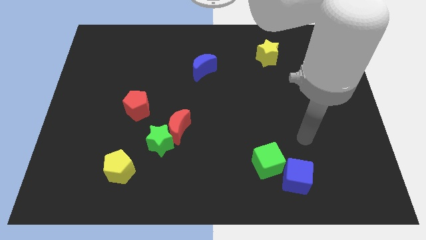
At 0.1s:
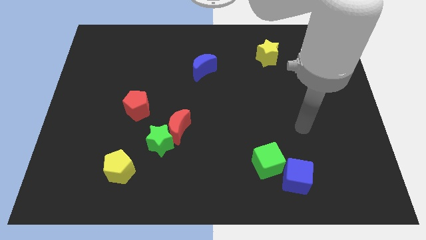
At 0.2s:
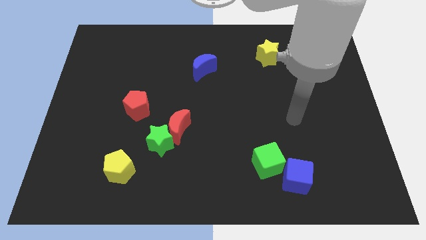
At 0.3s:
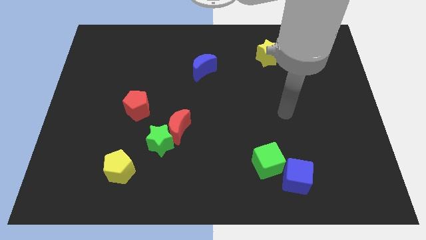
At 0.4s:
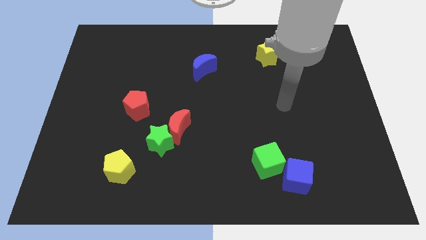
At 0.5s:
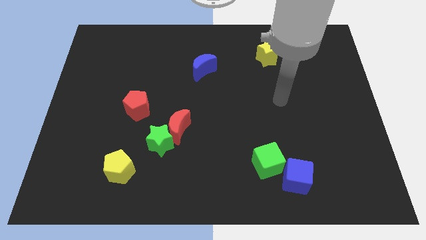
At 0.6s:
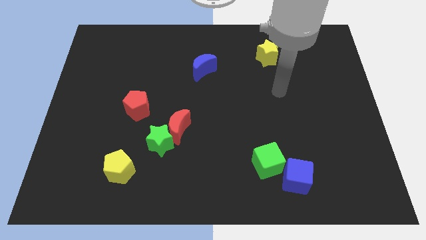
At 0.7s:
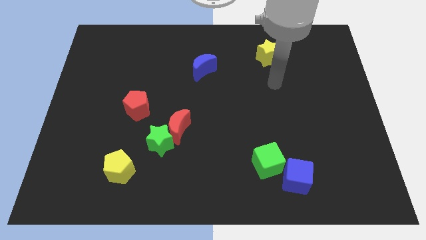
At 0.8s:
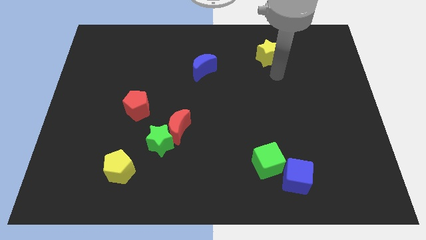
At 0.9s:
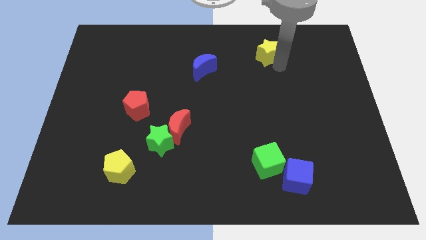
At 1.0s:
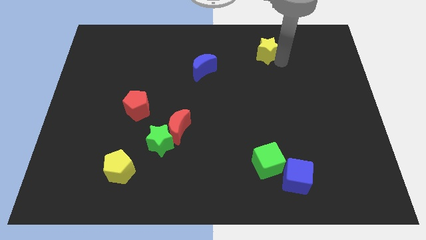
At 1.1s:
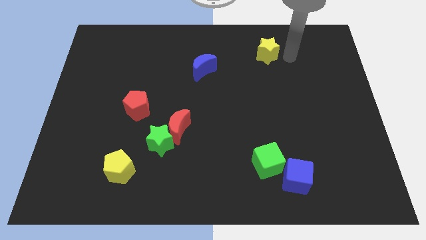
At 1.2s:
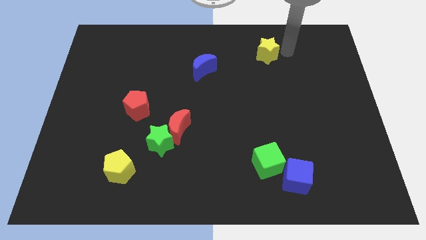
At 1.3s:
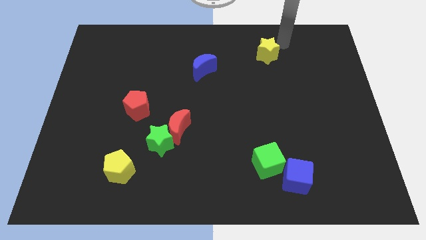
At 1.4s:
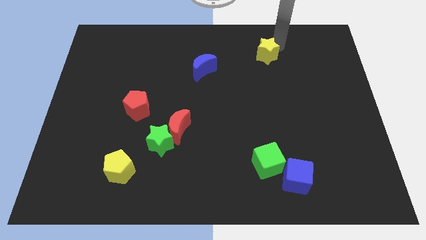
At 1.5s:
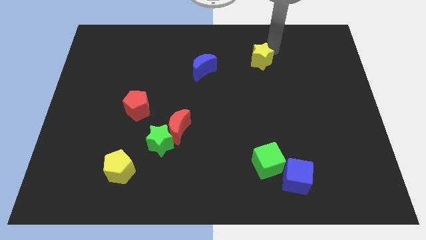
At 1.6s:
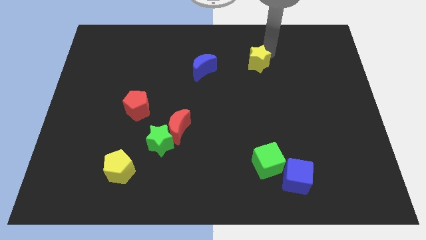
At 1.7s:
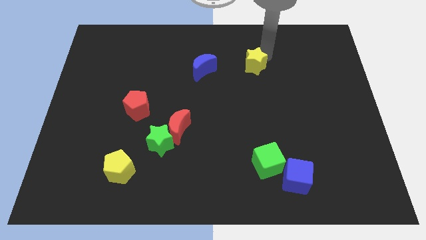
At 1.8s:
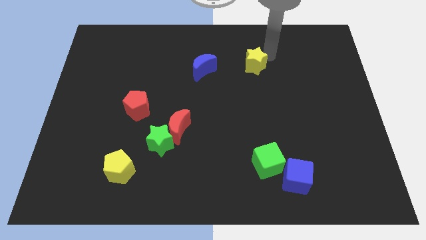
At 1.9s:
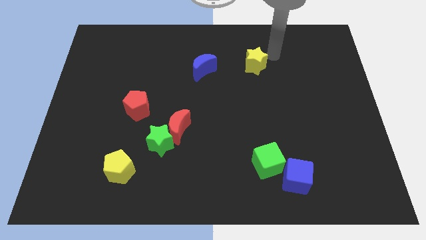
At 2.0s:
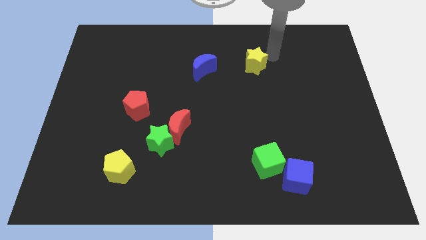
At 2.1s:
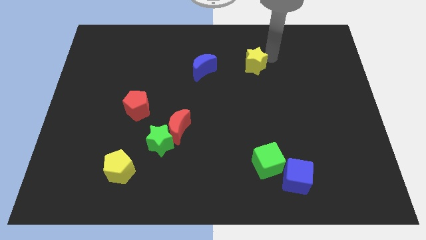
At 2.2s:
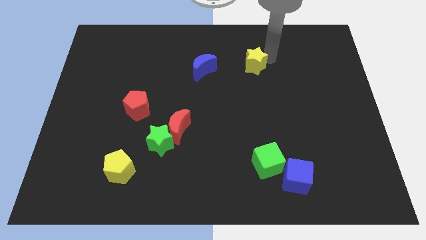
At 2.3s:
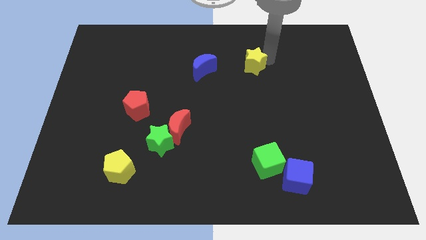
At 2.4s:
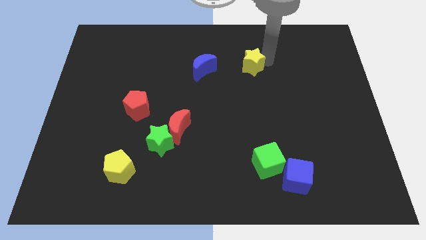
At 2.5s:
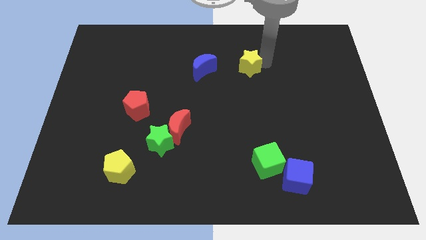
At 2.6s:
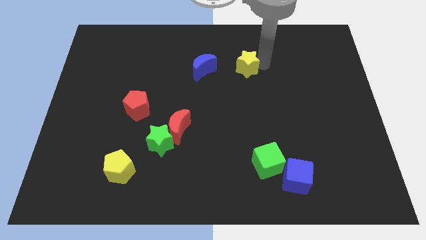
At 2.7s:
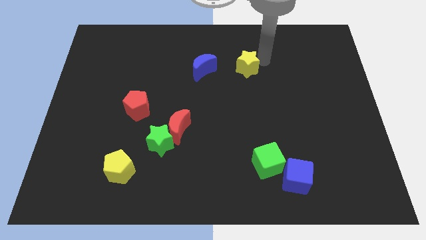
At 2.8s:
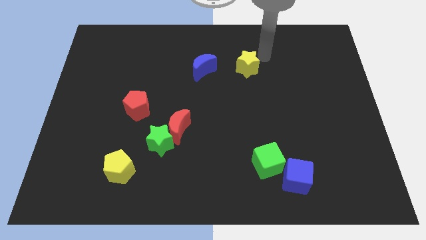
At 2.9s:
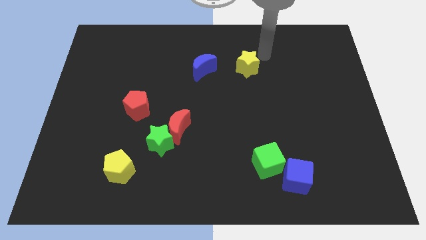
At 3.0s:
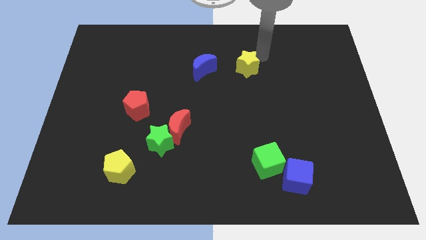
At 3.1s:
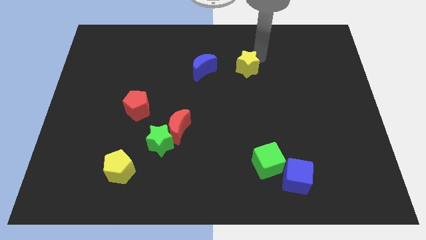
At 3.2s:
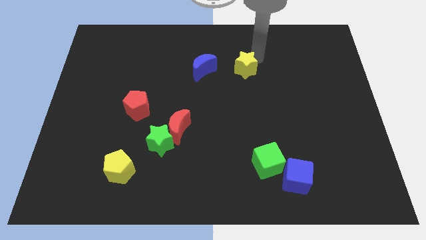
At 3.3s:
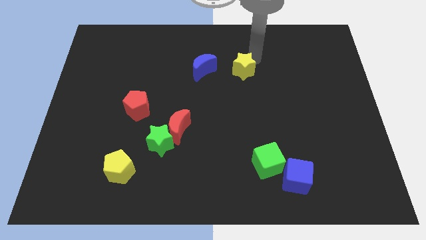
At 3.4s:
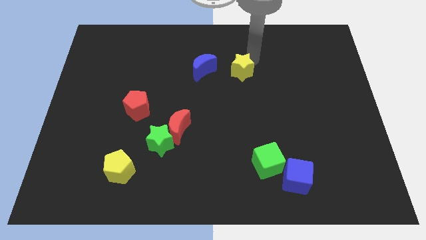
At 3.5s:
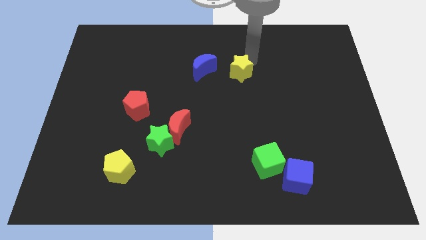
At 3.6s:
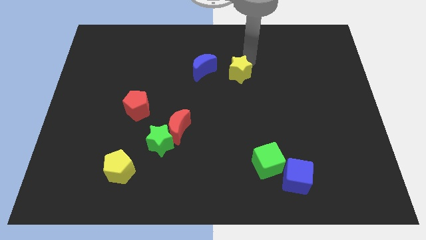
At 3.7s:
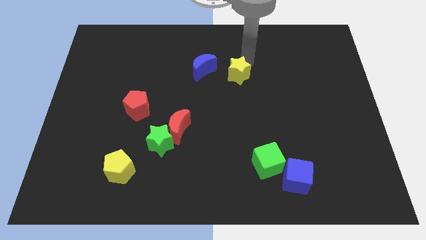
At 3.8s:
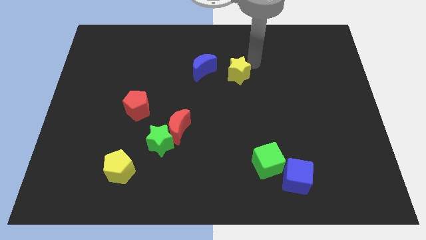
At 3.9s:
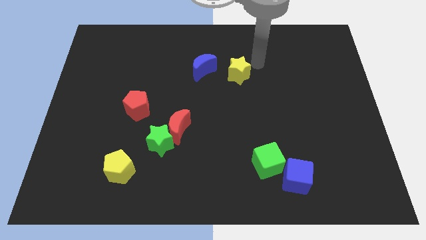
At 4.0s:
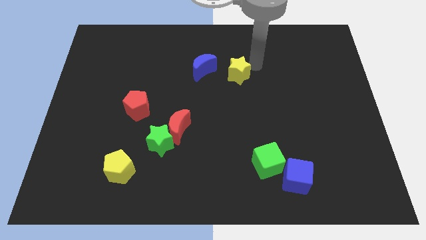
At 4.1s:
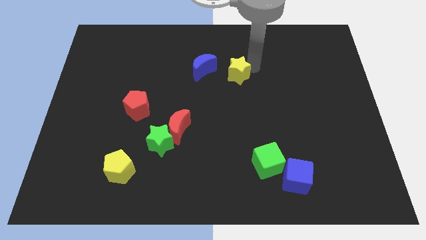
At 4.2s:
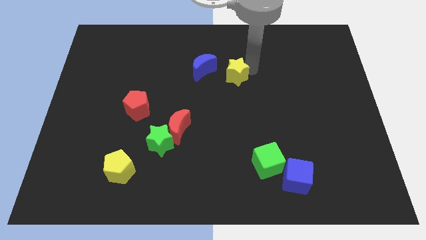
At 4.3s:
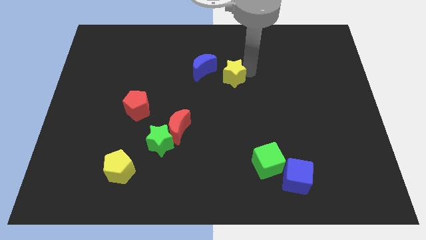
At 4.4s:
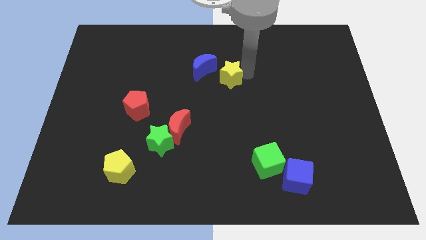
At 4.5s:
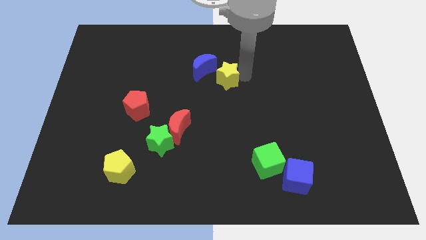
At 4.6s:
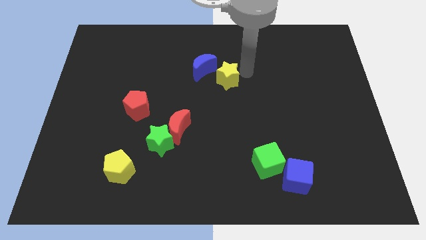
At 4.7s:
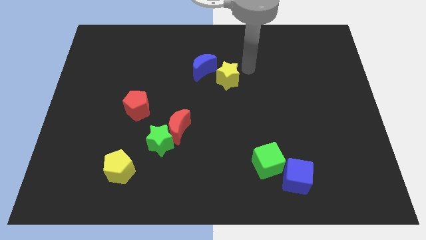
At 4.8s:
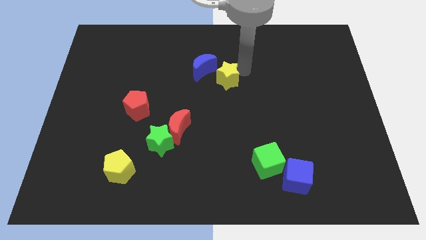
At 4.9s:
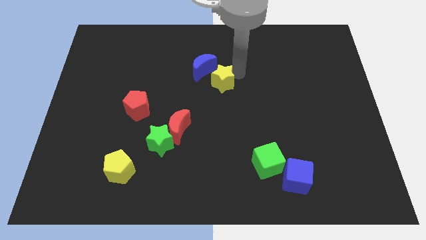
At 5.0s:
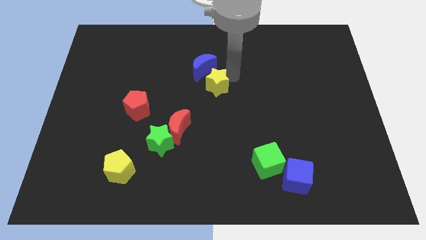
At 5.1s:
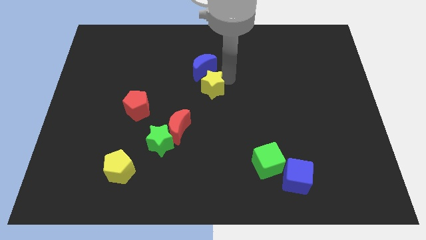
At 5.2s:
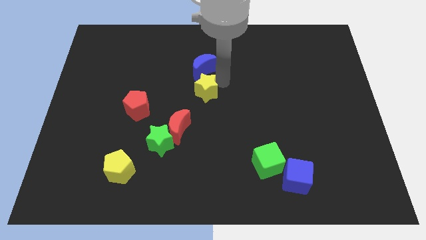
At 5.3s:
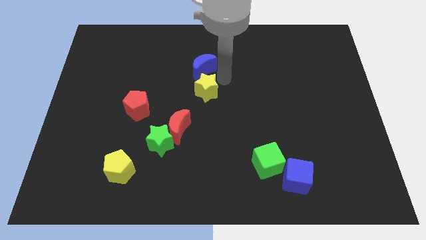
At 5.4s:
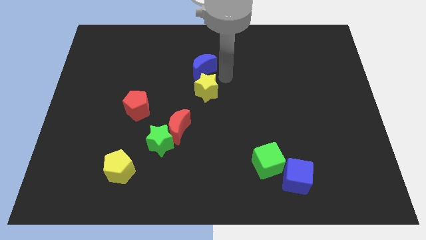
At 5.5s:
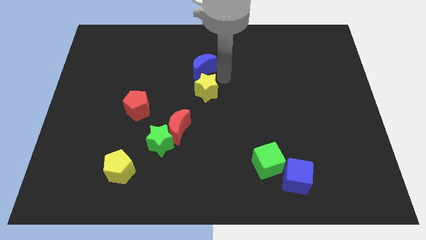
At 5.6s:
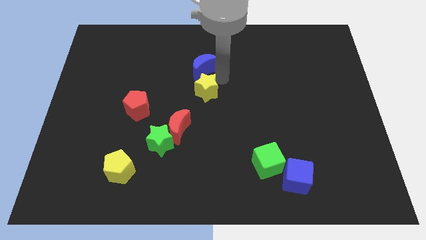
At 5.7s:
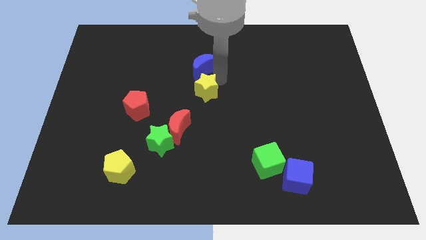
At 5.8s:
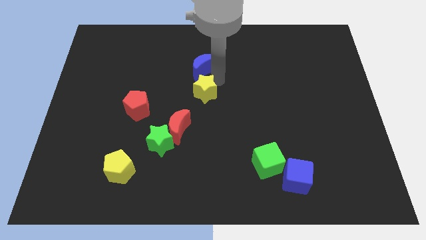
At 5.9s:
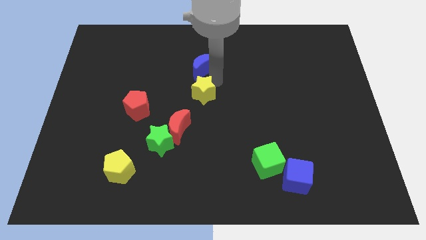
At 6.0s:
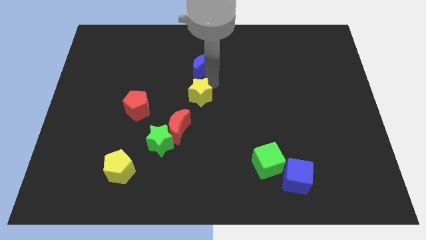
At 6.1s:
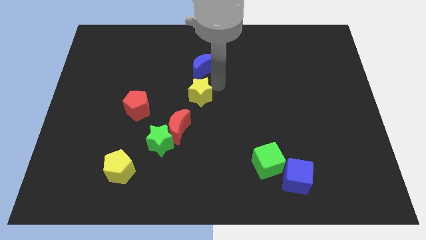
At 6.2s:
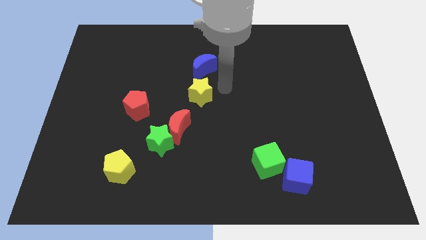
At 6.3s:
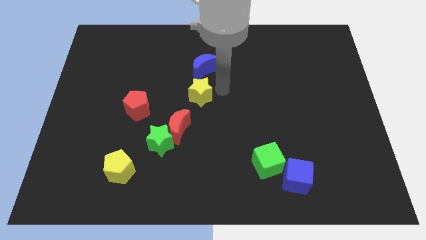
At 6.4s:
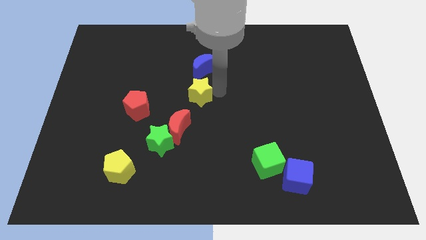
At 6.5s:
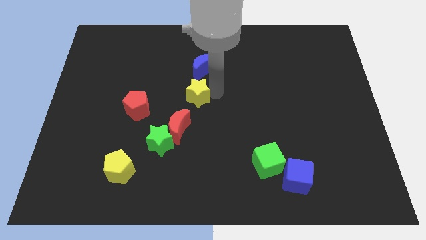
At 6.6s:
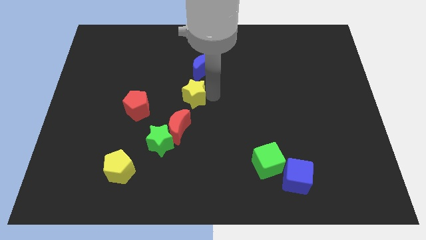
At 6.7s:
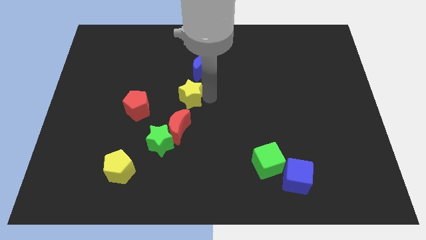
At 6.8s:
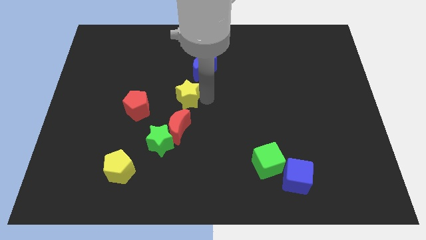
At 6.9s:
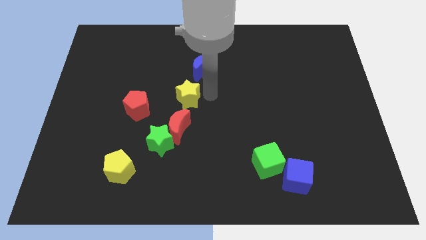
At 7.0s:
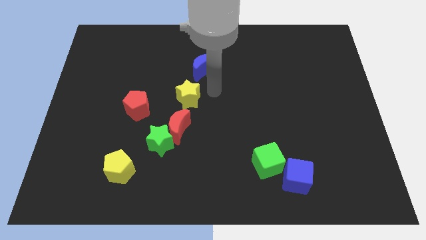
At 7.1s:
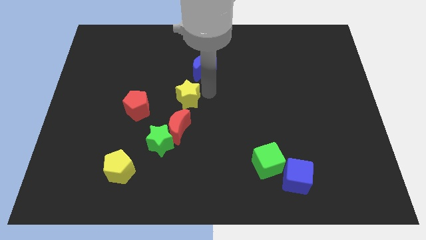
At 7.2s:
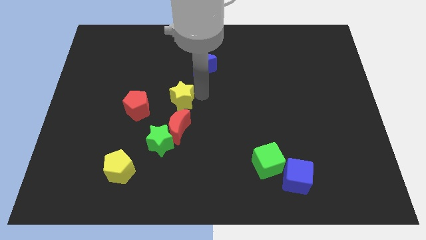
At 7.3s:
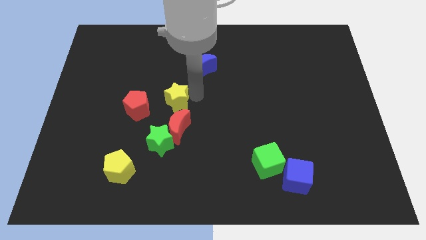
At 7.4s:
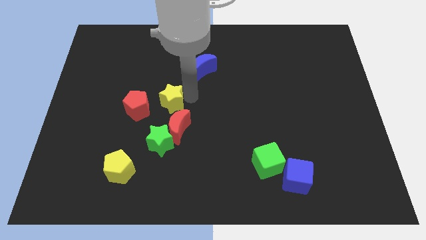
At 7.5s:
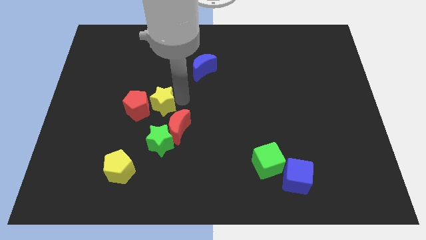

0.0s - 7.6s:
push the yellow star to the red pentagon
